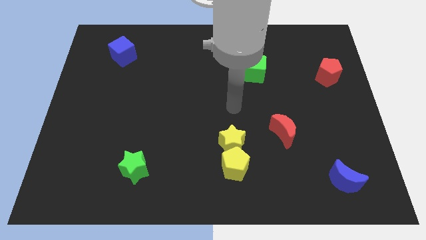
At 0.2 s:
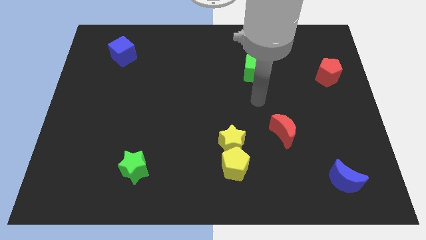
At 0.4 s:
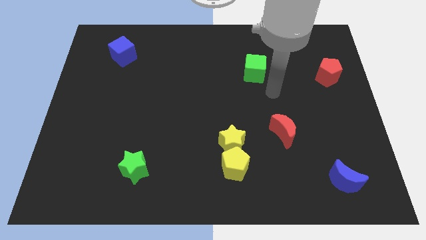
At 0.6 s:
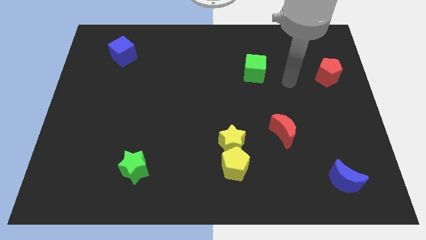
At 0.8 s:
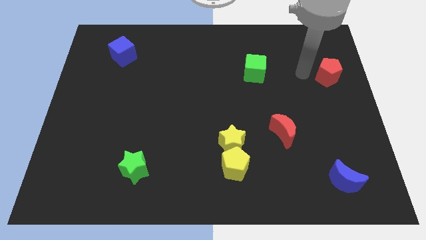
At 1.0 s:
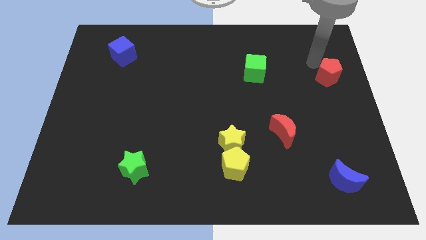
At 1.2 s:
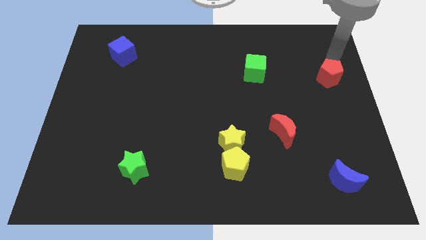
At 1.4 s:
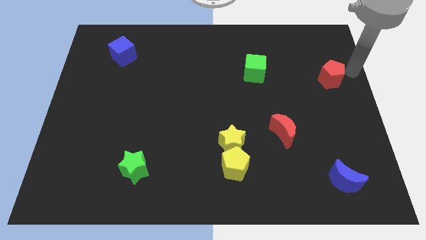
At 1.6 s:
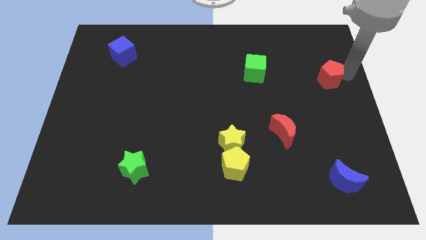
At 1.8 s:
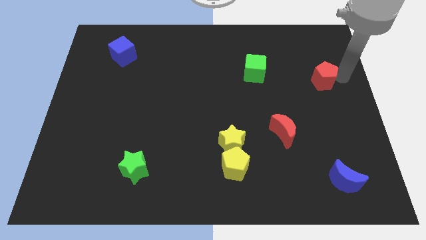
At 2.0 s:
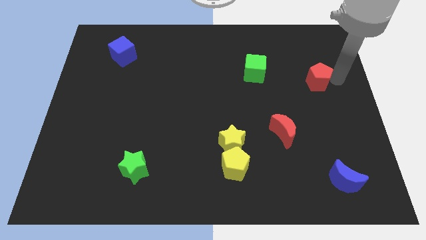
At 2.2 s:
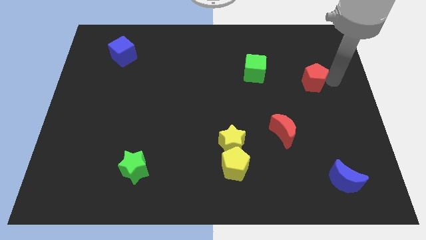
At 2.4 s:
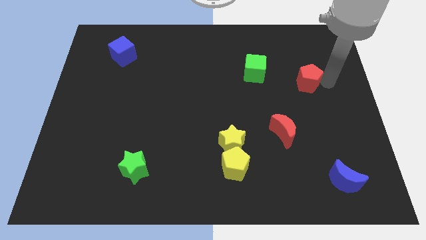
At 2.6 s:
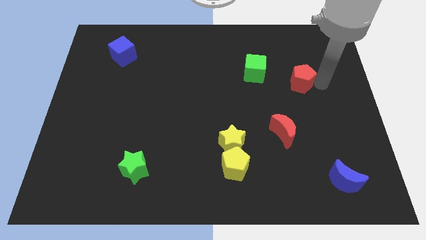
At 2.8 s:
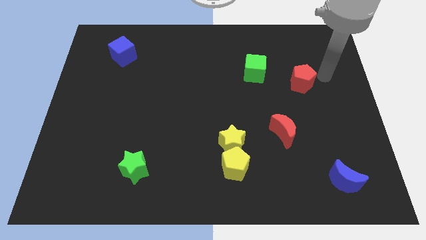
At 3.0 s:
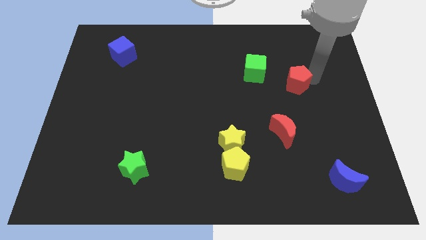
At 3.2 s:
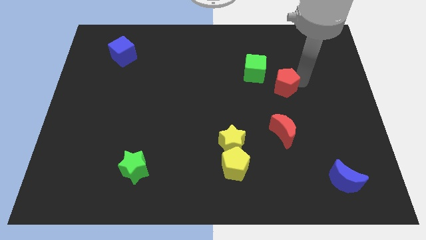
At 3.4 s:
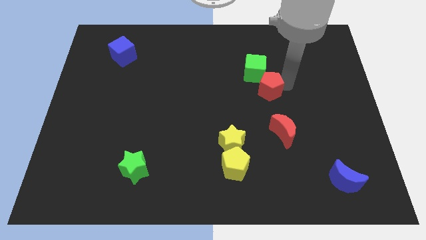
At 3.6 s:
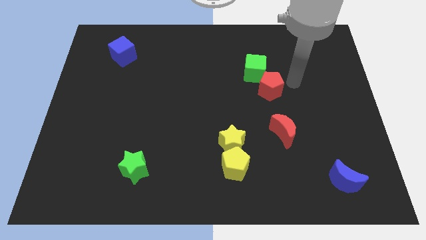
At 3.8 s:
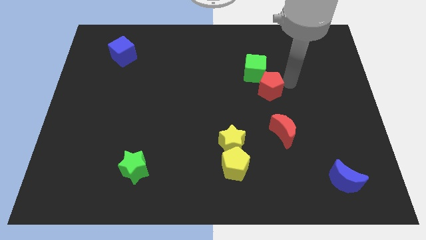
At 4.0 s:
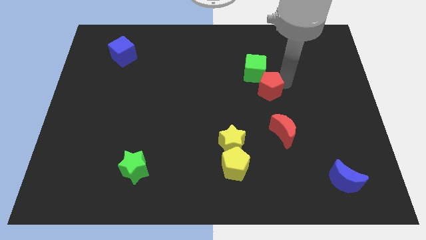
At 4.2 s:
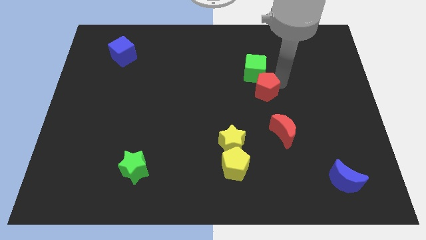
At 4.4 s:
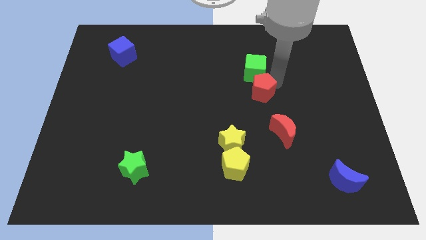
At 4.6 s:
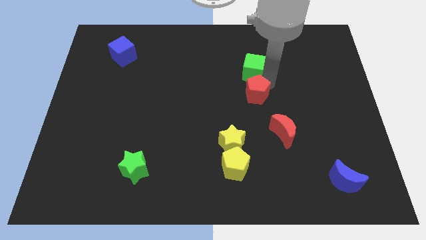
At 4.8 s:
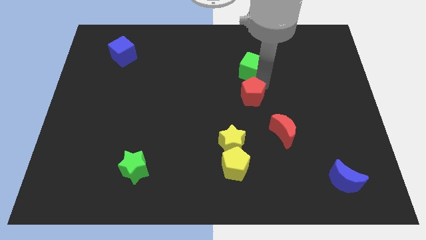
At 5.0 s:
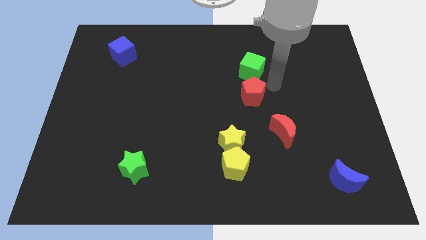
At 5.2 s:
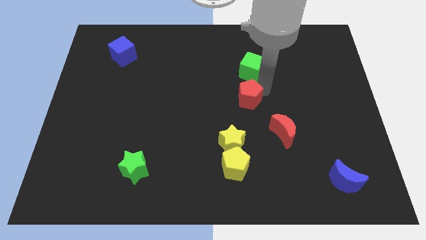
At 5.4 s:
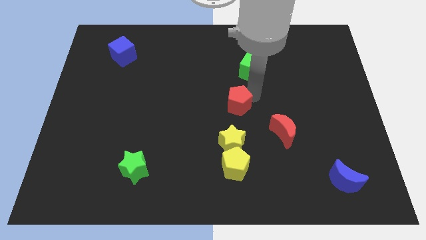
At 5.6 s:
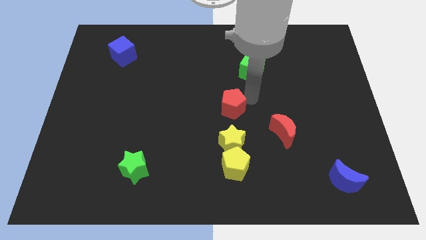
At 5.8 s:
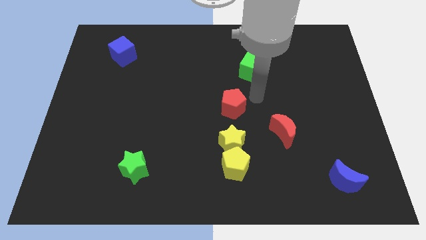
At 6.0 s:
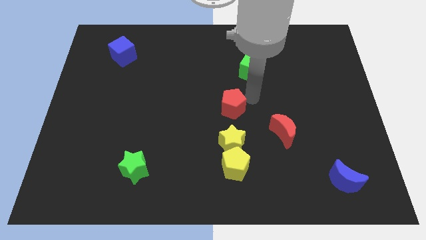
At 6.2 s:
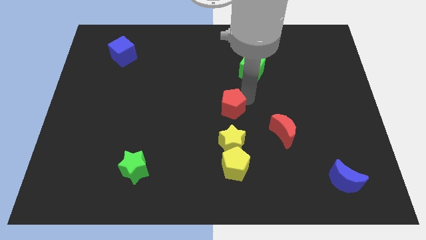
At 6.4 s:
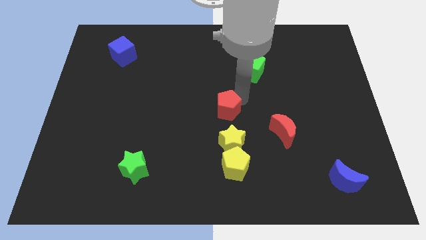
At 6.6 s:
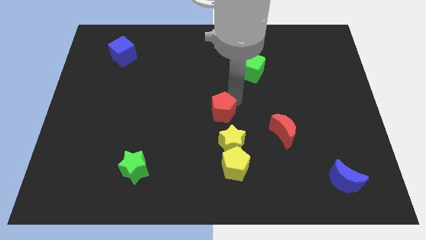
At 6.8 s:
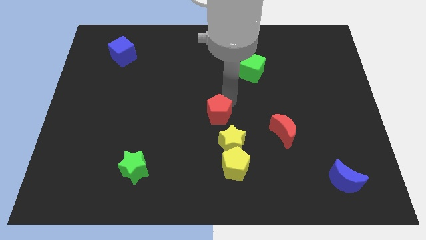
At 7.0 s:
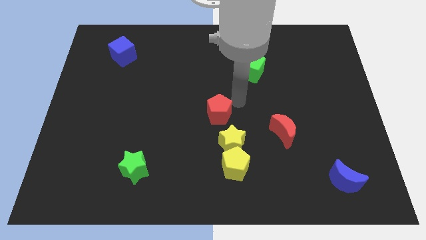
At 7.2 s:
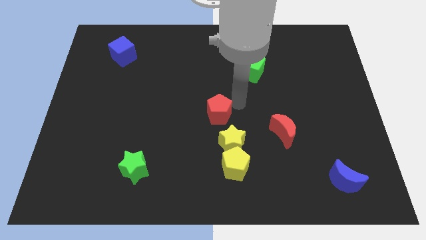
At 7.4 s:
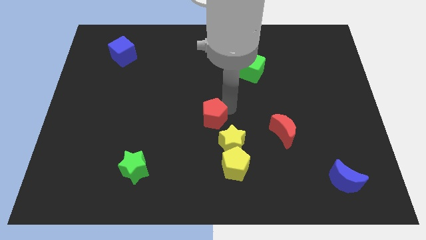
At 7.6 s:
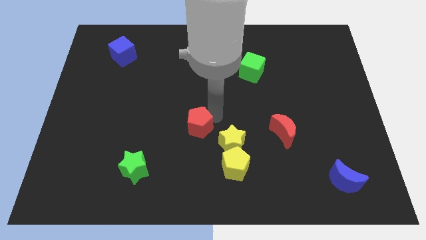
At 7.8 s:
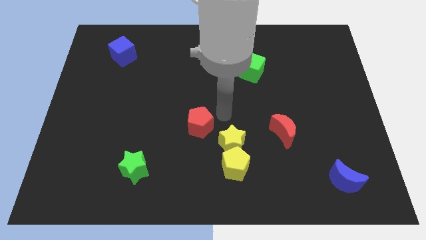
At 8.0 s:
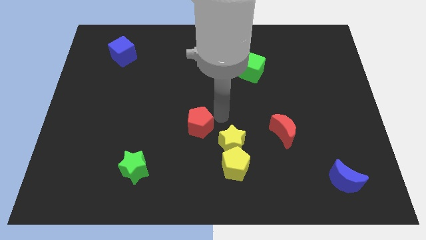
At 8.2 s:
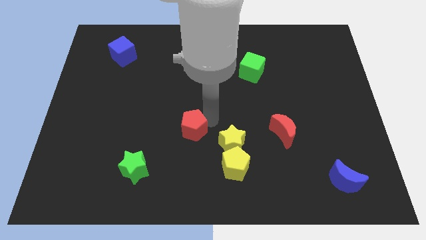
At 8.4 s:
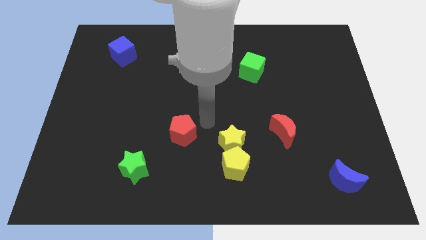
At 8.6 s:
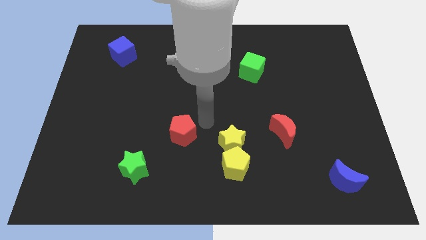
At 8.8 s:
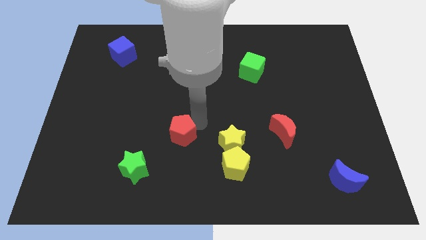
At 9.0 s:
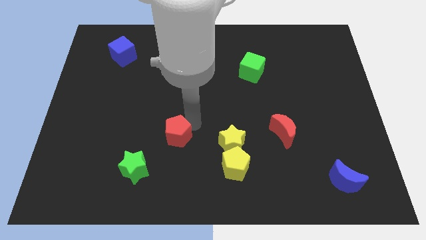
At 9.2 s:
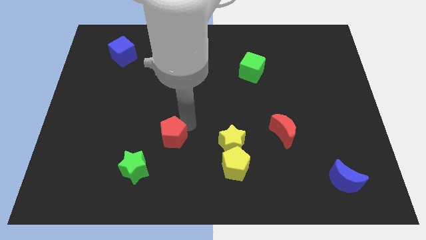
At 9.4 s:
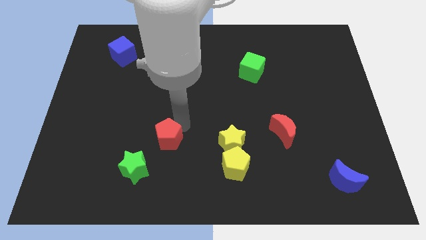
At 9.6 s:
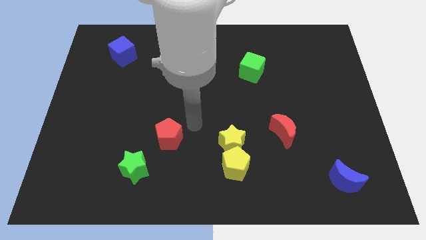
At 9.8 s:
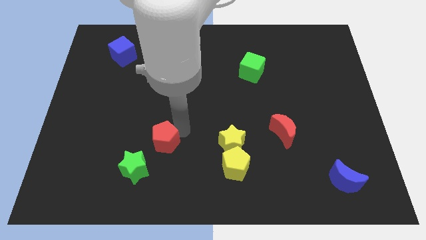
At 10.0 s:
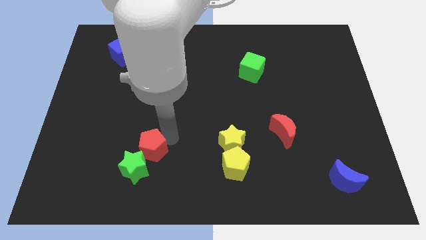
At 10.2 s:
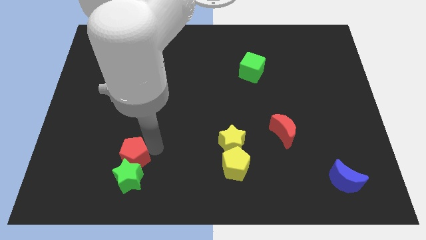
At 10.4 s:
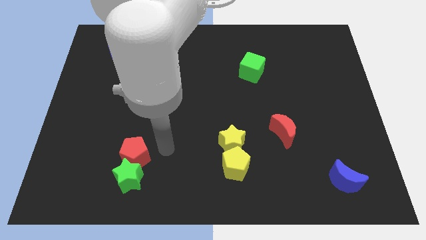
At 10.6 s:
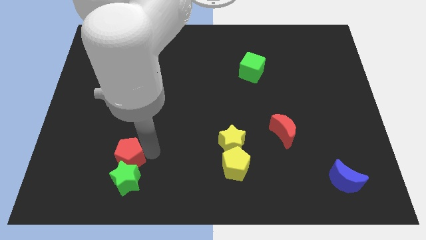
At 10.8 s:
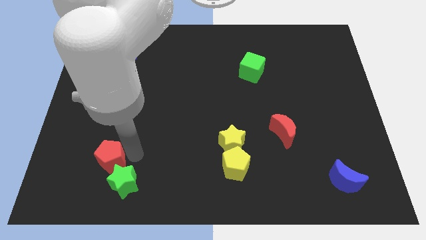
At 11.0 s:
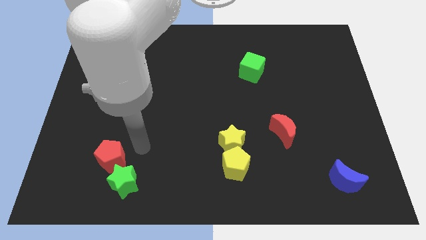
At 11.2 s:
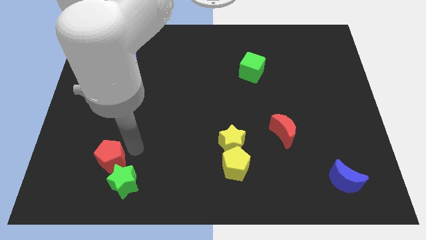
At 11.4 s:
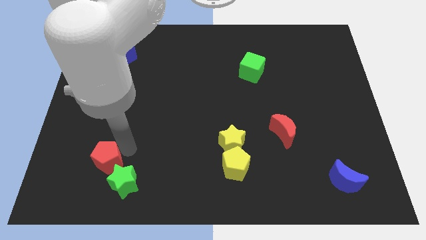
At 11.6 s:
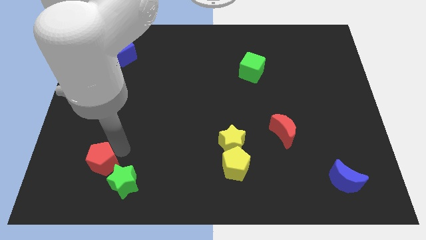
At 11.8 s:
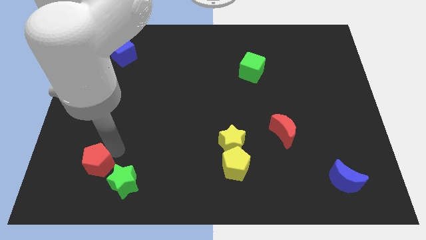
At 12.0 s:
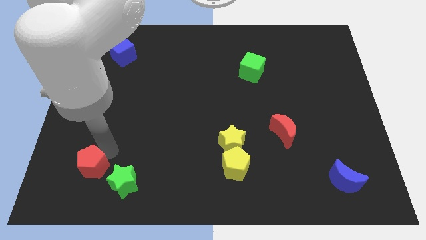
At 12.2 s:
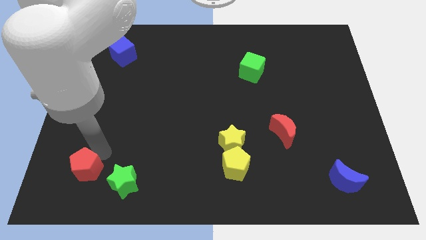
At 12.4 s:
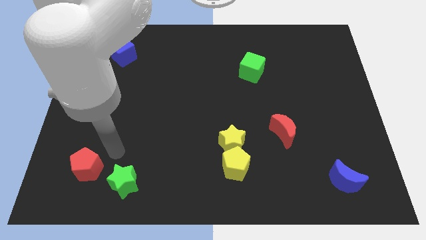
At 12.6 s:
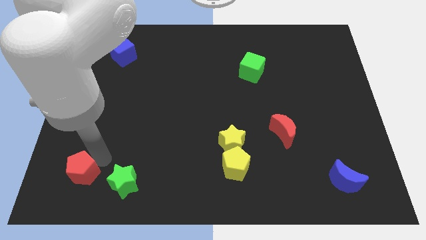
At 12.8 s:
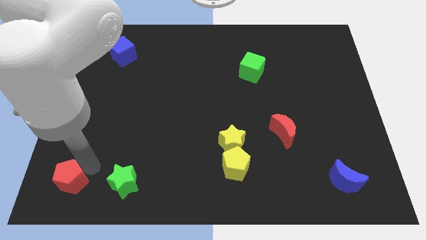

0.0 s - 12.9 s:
slide the red pentagon to the bottom left

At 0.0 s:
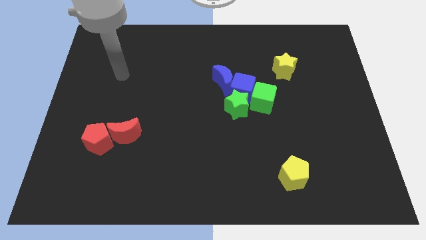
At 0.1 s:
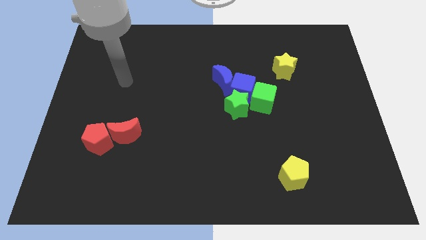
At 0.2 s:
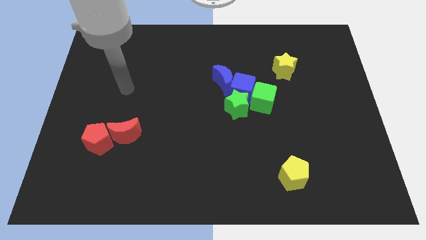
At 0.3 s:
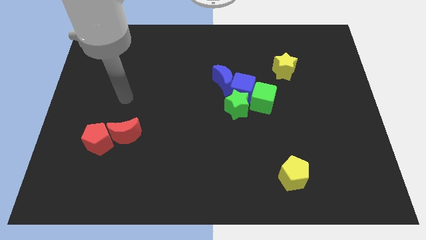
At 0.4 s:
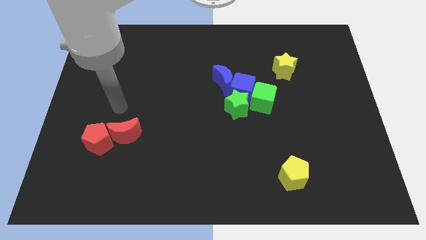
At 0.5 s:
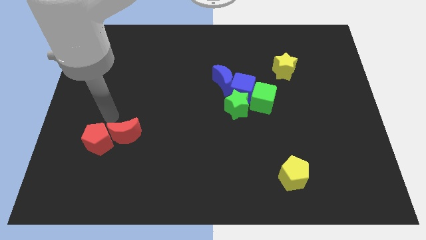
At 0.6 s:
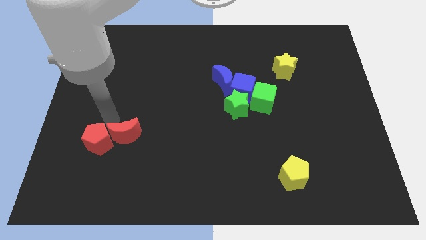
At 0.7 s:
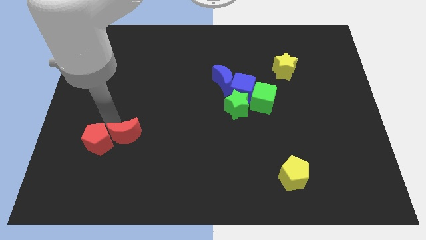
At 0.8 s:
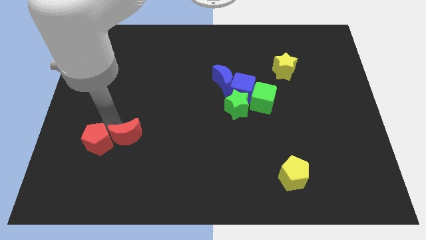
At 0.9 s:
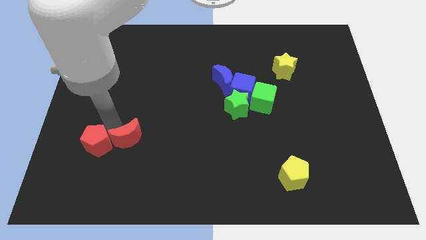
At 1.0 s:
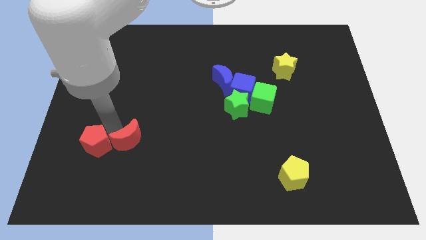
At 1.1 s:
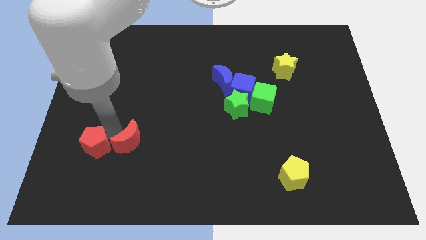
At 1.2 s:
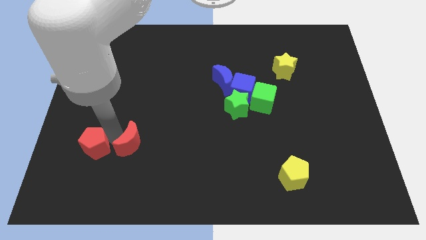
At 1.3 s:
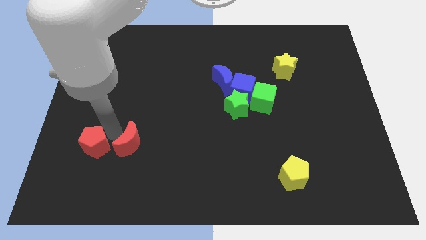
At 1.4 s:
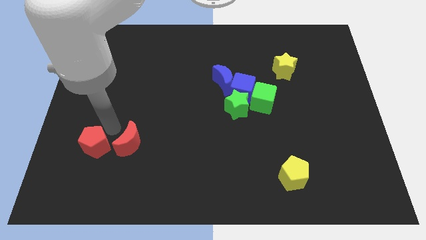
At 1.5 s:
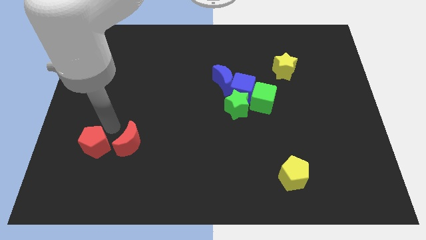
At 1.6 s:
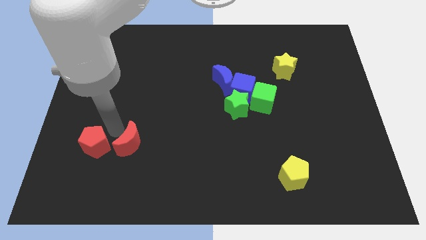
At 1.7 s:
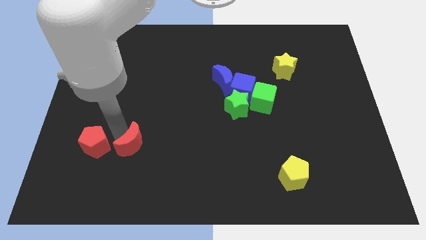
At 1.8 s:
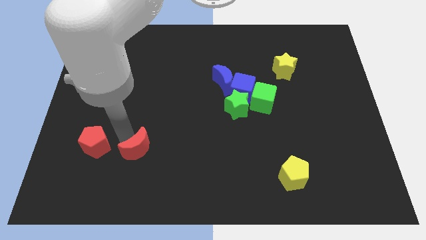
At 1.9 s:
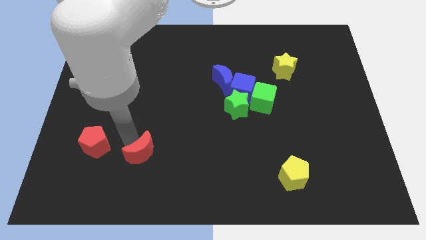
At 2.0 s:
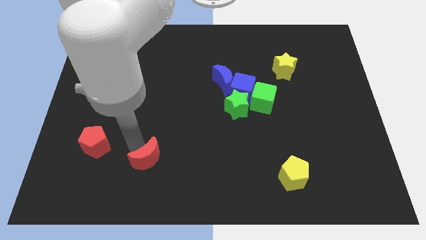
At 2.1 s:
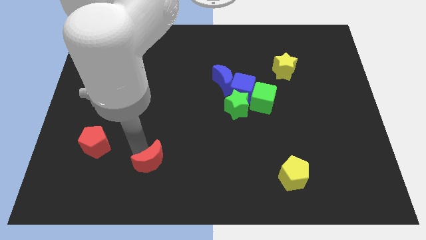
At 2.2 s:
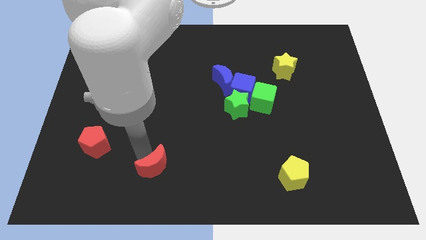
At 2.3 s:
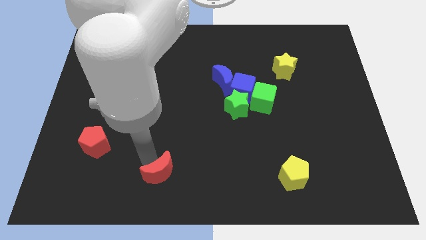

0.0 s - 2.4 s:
move the red moon to the bottom
